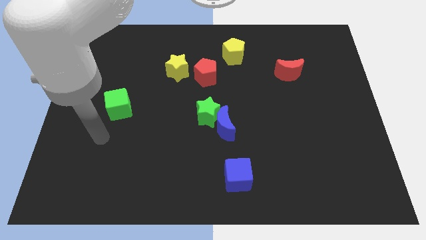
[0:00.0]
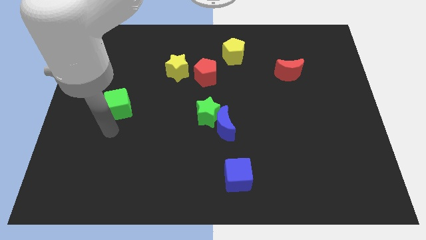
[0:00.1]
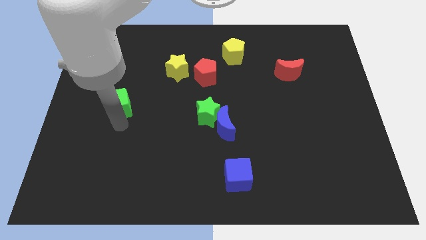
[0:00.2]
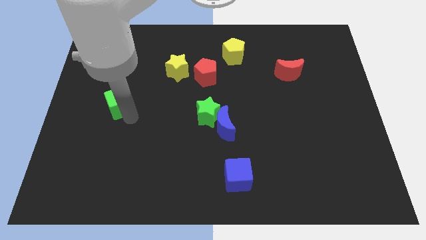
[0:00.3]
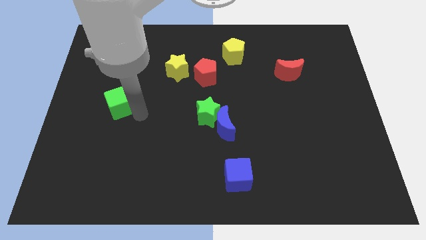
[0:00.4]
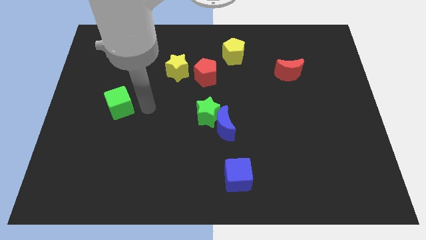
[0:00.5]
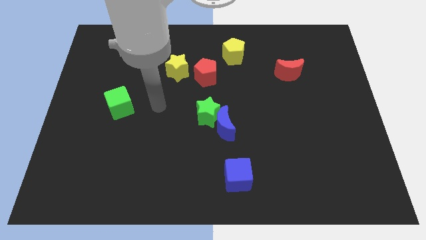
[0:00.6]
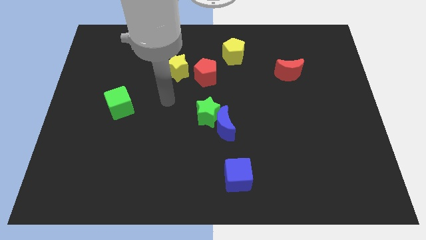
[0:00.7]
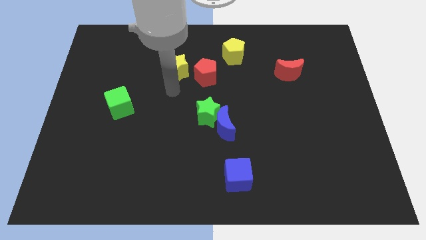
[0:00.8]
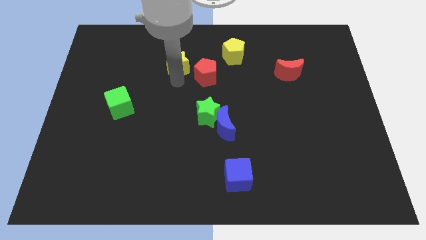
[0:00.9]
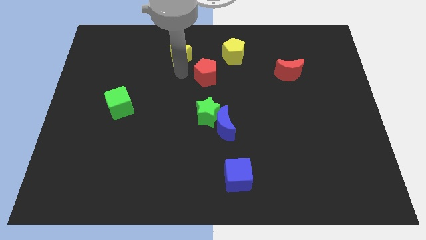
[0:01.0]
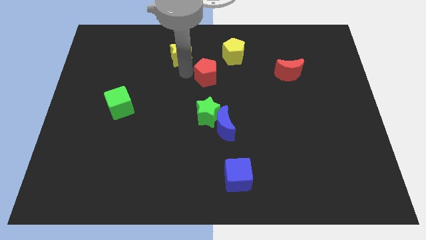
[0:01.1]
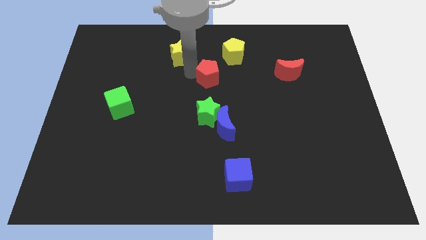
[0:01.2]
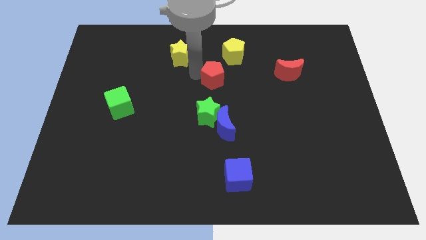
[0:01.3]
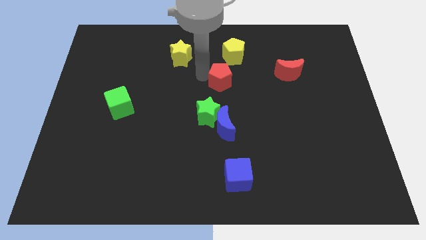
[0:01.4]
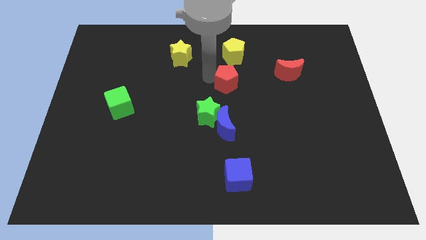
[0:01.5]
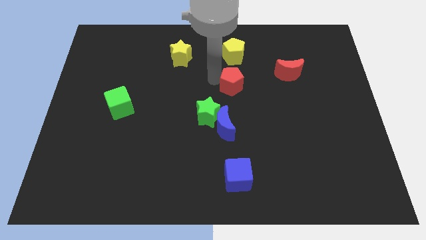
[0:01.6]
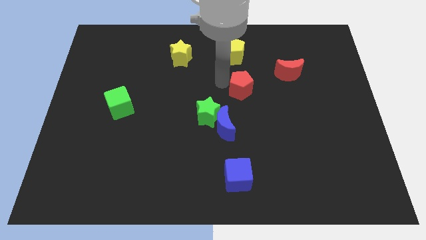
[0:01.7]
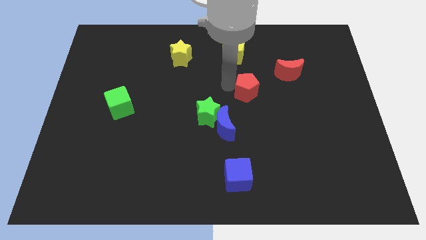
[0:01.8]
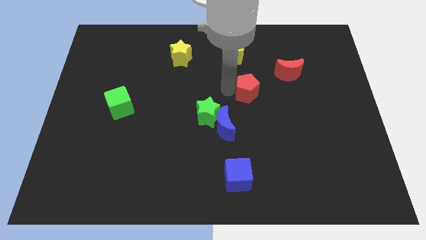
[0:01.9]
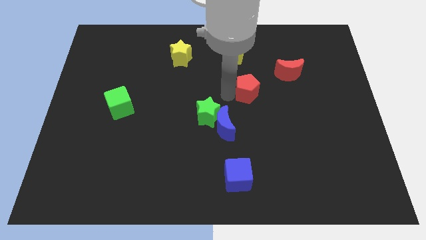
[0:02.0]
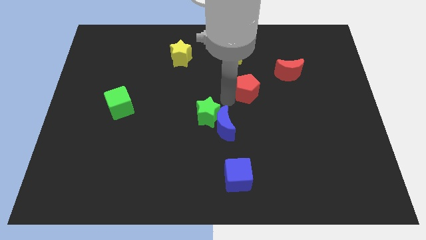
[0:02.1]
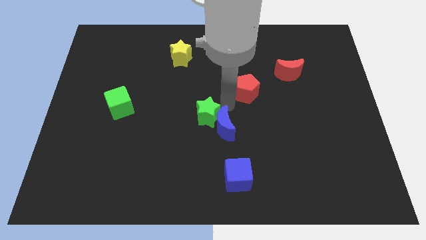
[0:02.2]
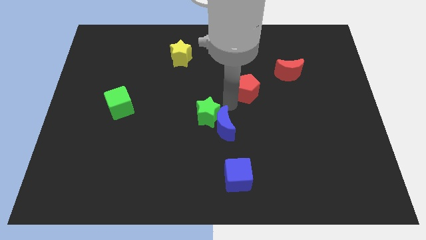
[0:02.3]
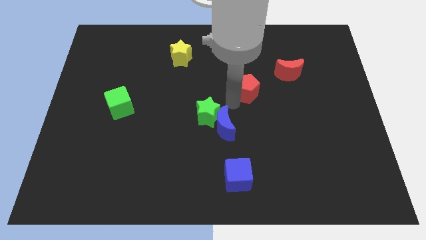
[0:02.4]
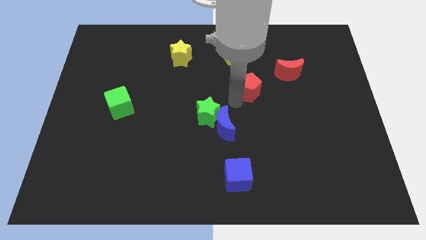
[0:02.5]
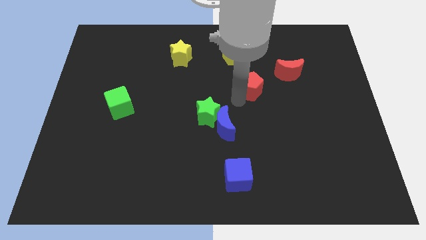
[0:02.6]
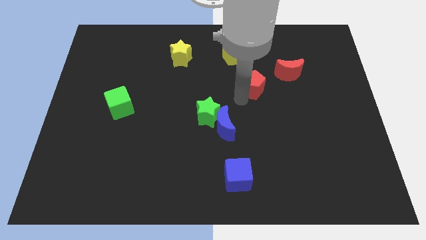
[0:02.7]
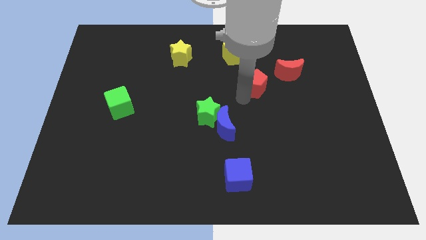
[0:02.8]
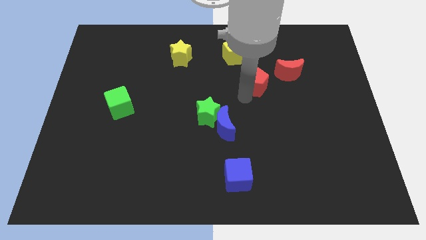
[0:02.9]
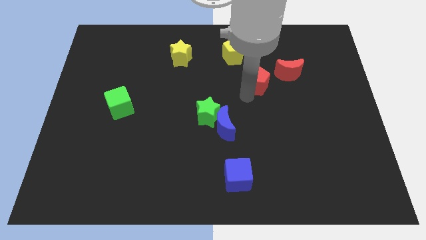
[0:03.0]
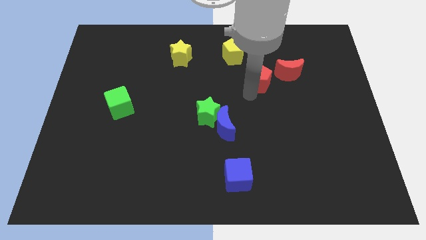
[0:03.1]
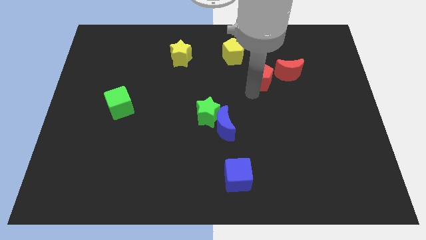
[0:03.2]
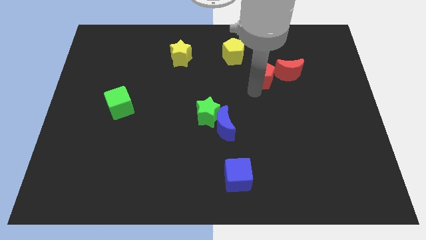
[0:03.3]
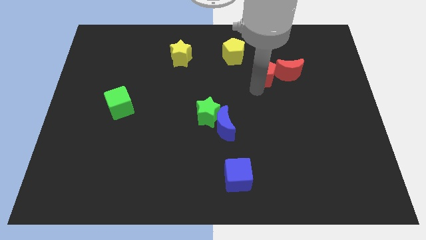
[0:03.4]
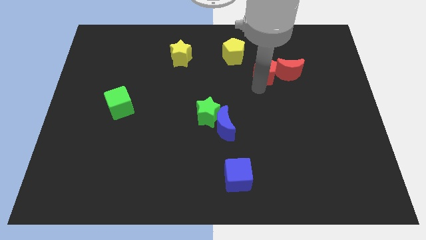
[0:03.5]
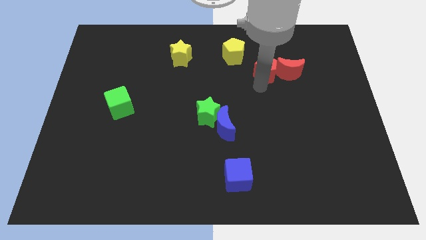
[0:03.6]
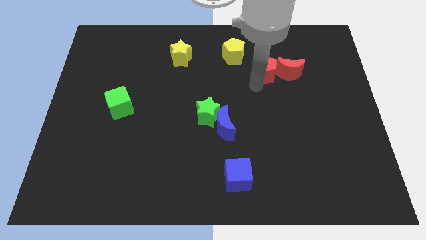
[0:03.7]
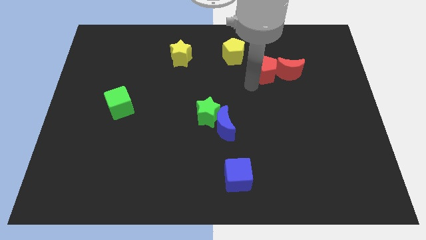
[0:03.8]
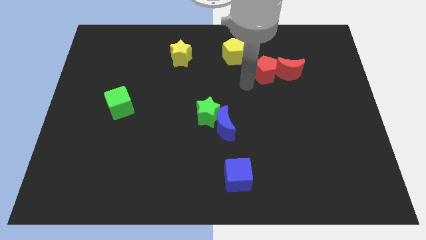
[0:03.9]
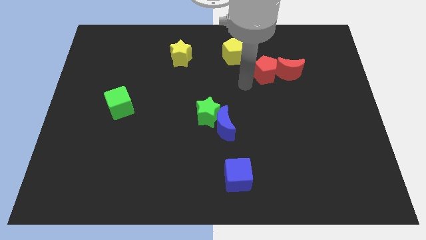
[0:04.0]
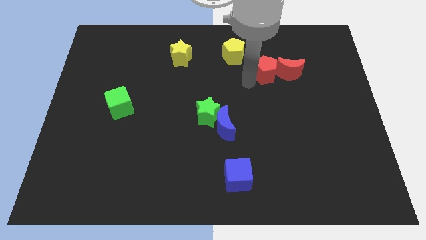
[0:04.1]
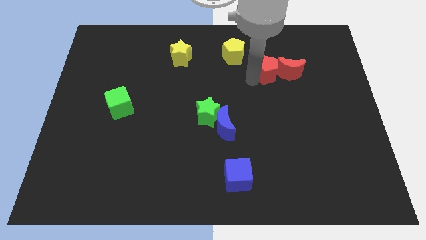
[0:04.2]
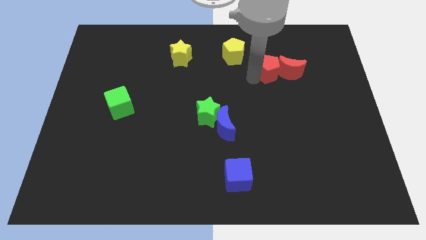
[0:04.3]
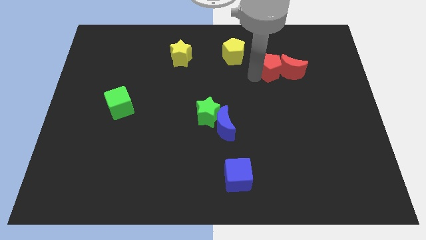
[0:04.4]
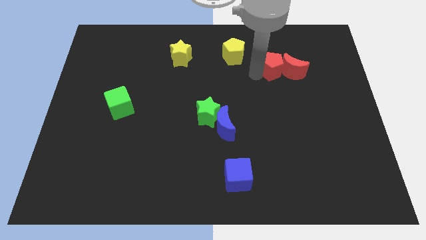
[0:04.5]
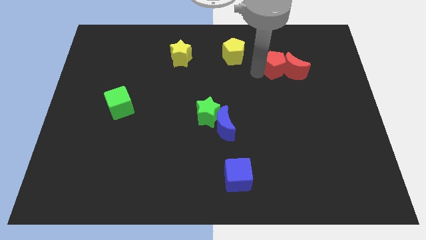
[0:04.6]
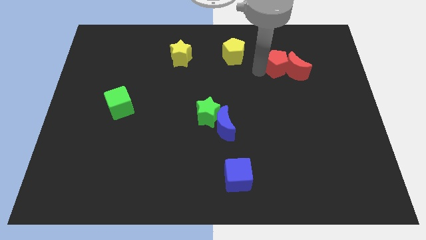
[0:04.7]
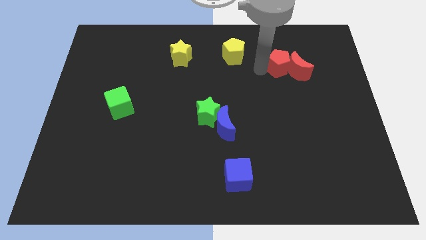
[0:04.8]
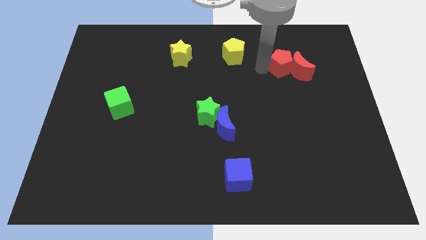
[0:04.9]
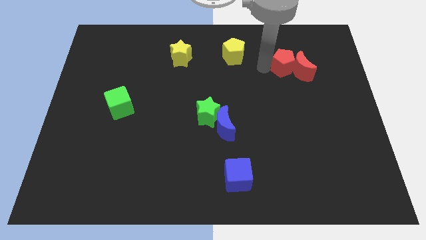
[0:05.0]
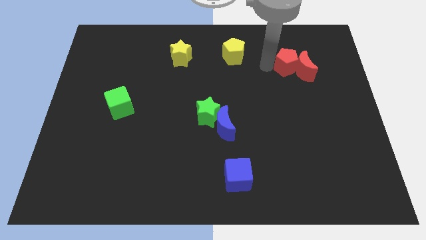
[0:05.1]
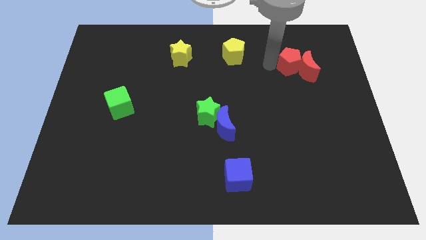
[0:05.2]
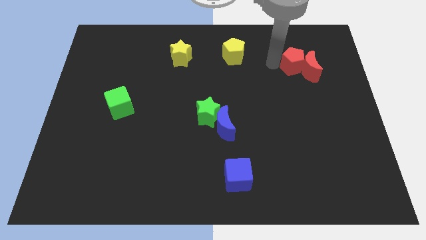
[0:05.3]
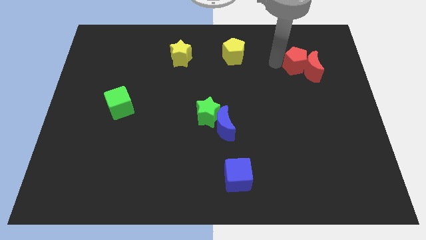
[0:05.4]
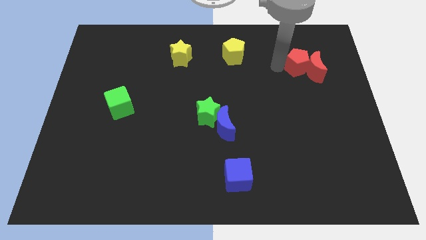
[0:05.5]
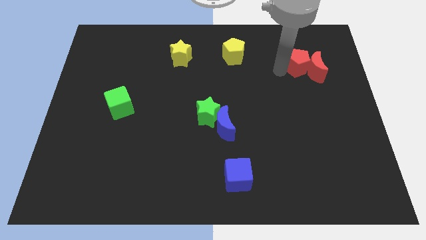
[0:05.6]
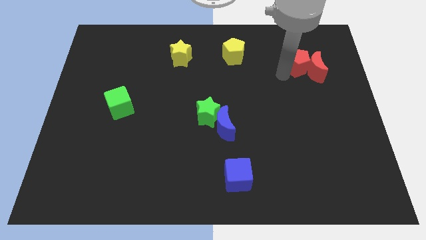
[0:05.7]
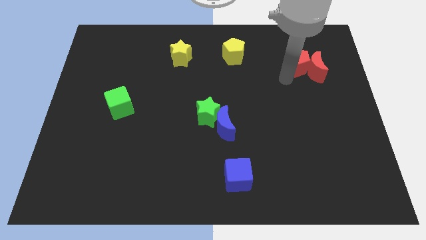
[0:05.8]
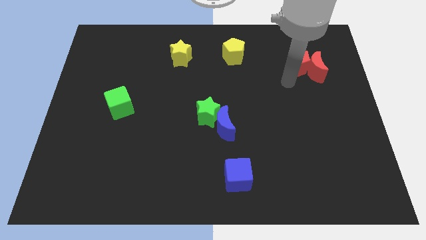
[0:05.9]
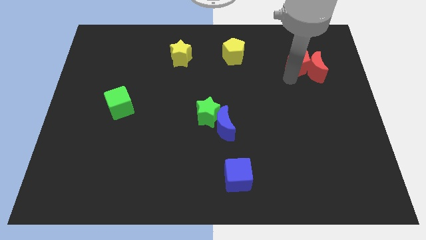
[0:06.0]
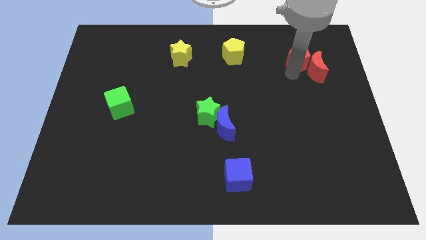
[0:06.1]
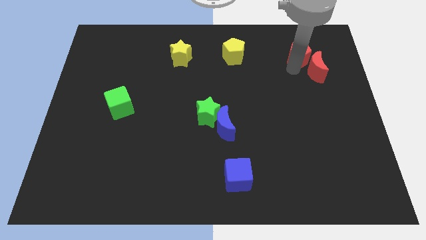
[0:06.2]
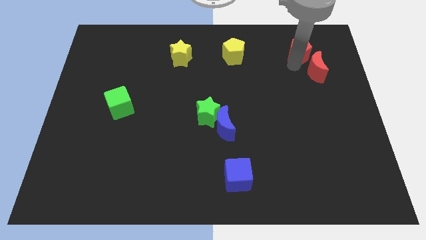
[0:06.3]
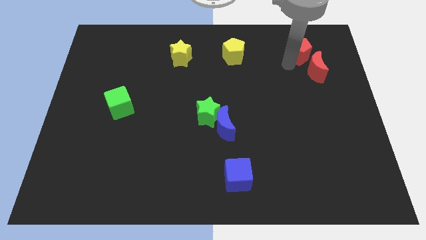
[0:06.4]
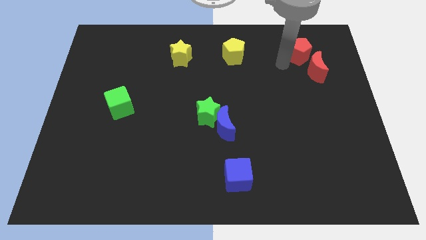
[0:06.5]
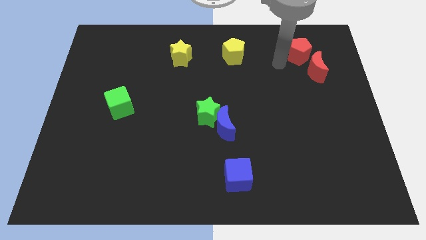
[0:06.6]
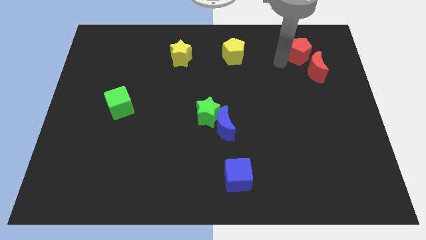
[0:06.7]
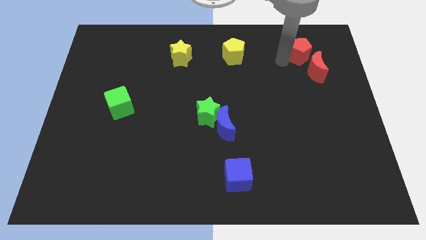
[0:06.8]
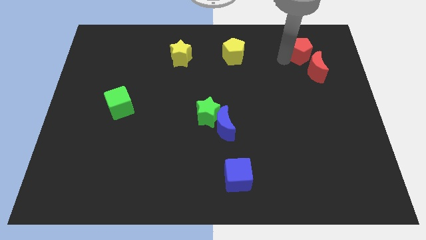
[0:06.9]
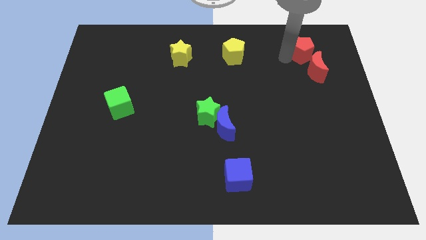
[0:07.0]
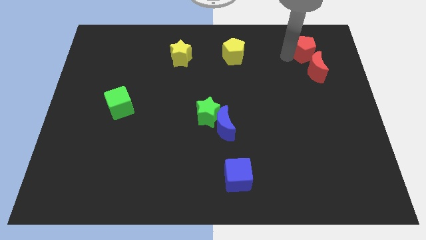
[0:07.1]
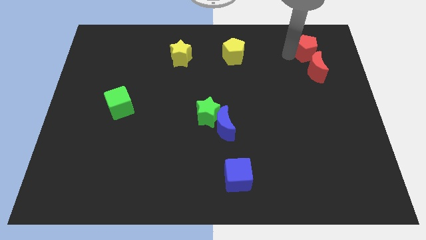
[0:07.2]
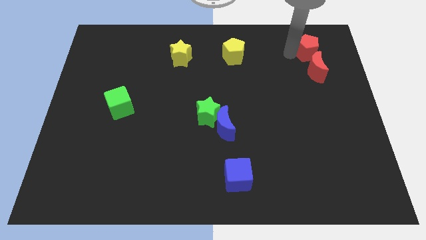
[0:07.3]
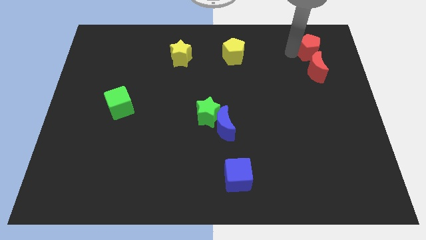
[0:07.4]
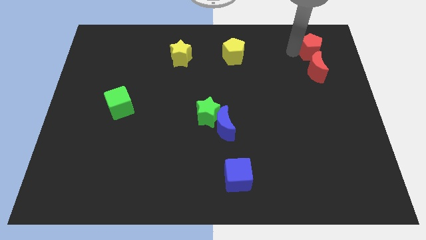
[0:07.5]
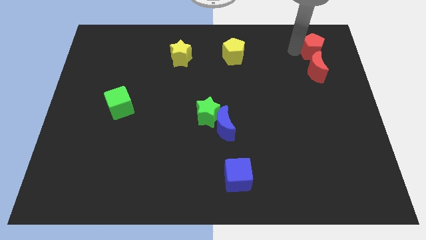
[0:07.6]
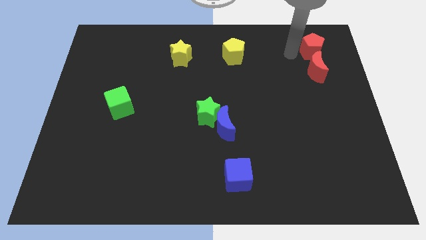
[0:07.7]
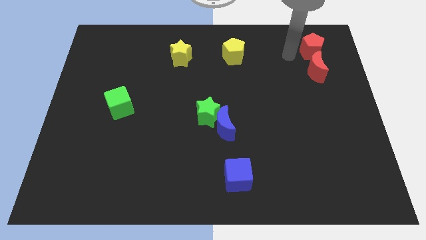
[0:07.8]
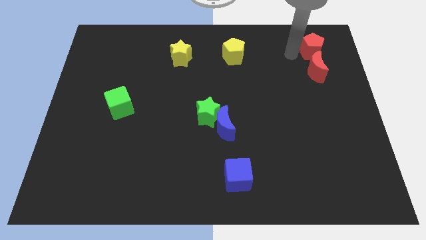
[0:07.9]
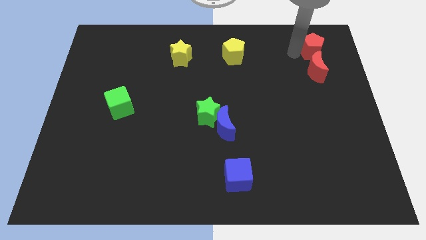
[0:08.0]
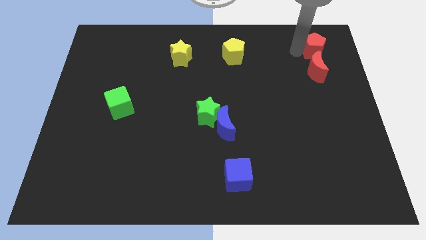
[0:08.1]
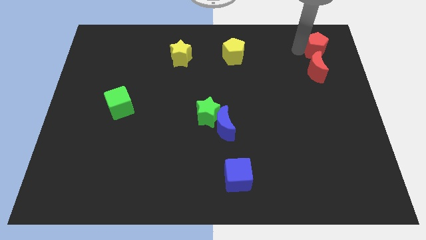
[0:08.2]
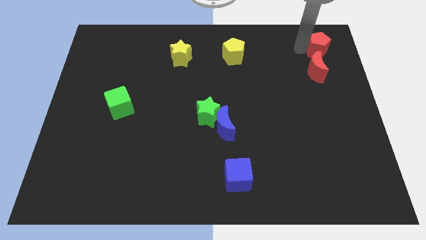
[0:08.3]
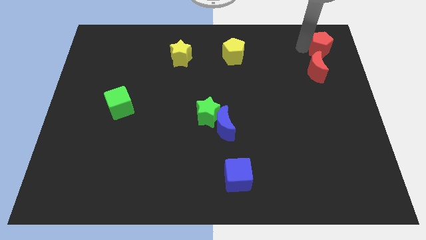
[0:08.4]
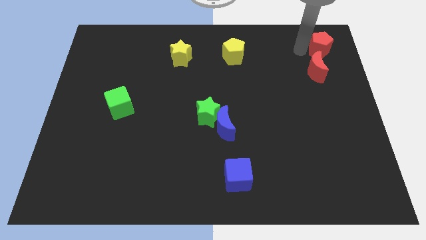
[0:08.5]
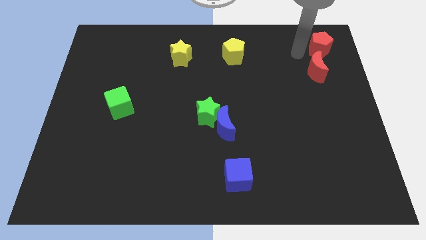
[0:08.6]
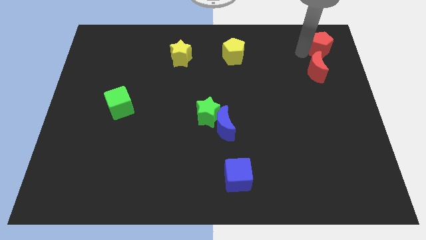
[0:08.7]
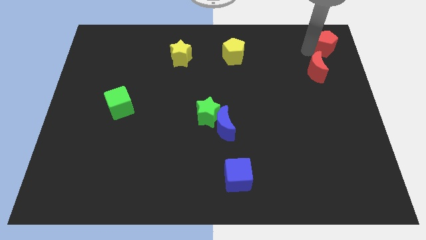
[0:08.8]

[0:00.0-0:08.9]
put the red pentagon to the top right
